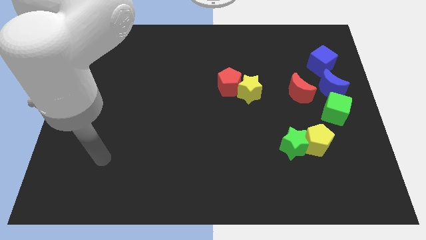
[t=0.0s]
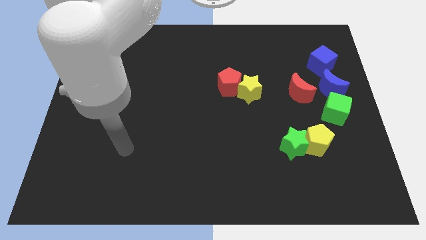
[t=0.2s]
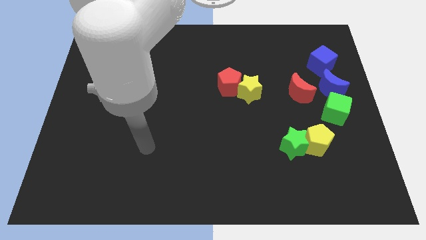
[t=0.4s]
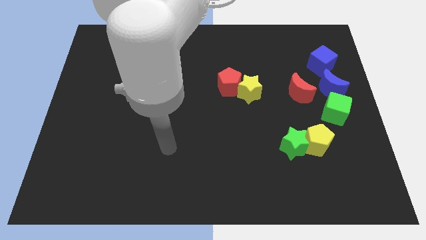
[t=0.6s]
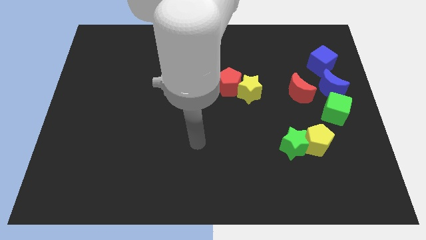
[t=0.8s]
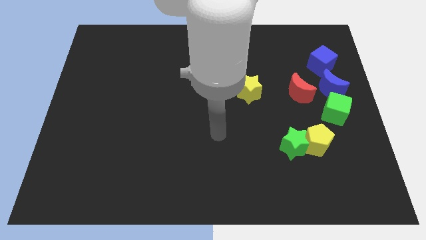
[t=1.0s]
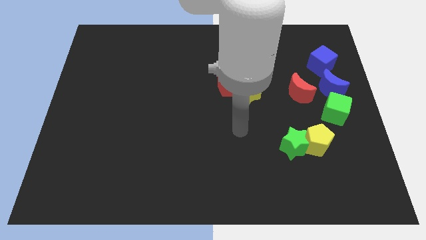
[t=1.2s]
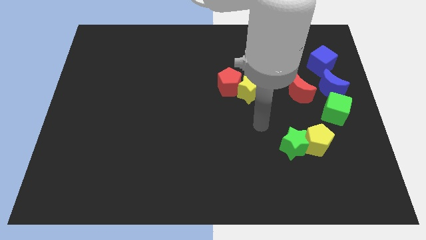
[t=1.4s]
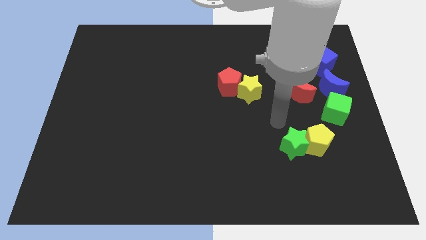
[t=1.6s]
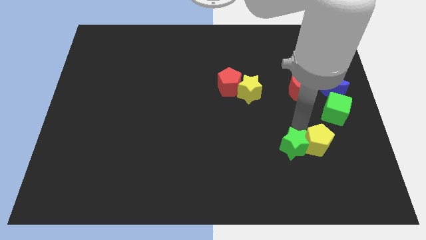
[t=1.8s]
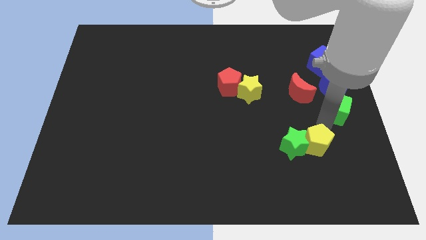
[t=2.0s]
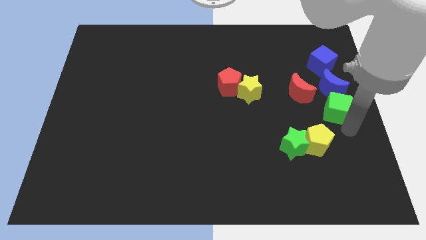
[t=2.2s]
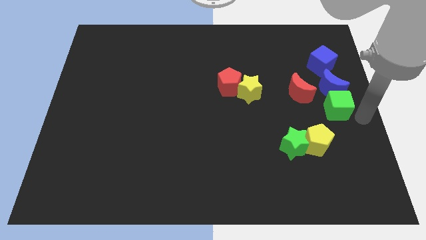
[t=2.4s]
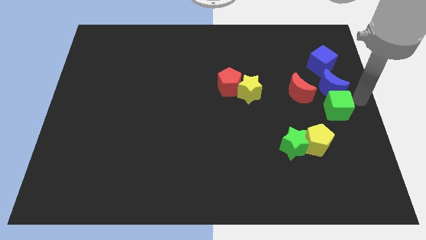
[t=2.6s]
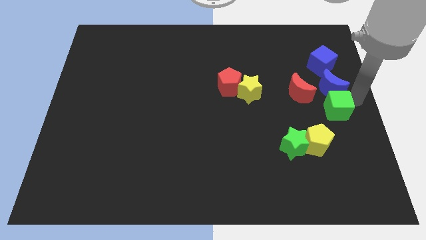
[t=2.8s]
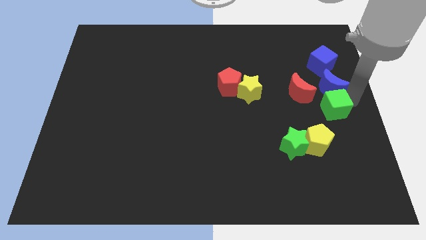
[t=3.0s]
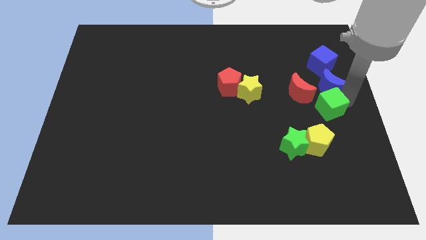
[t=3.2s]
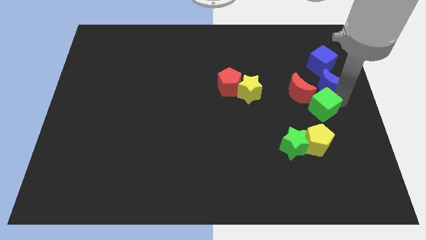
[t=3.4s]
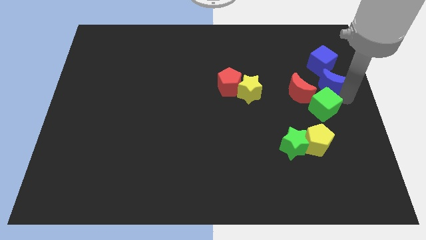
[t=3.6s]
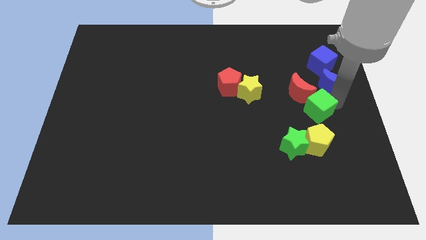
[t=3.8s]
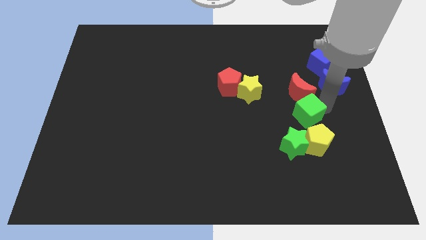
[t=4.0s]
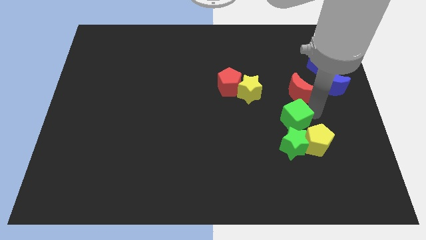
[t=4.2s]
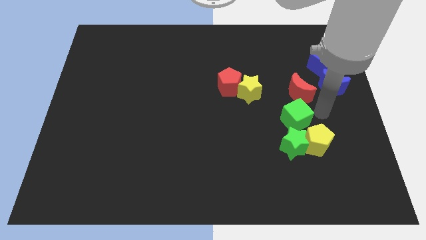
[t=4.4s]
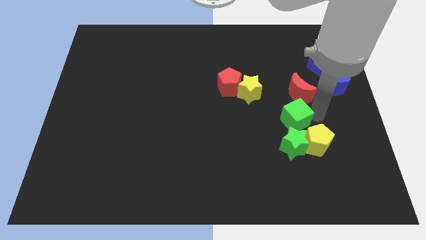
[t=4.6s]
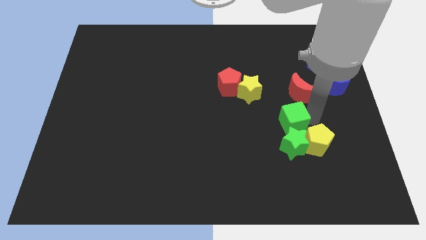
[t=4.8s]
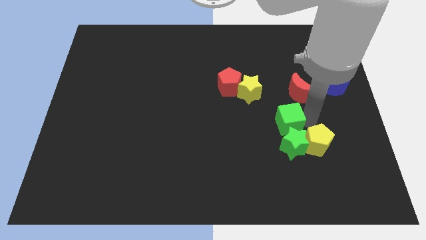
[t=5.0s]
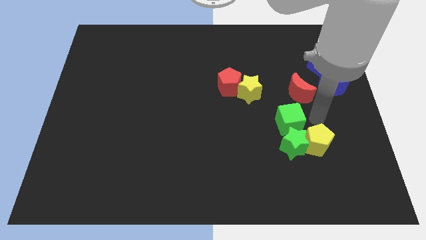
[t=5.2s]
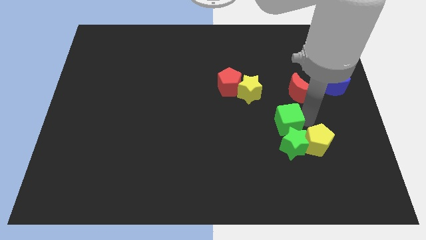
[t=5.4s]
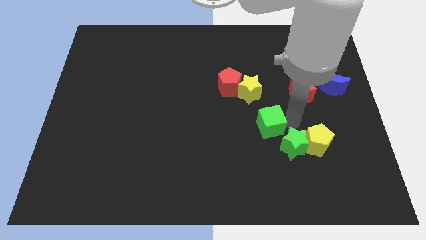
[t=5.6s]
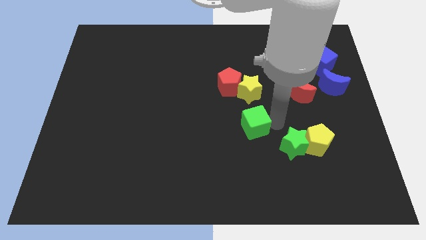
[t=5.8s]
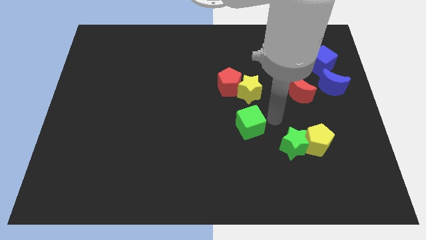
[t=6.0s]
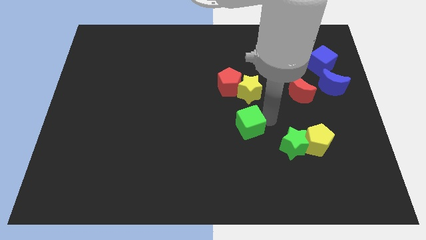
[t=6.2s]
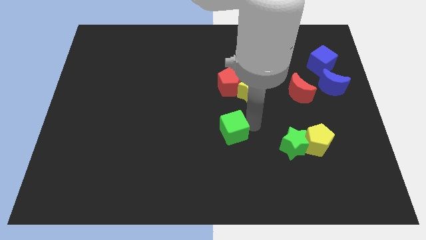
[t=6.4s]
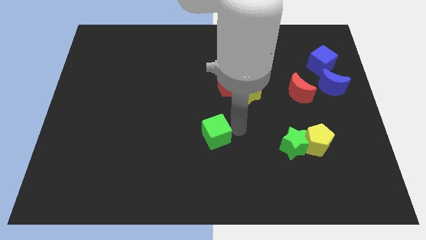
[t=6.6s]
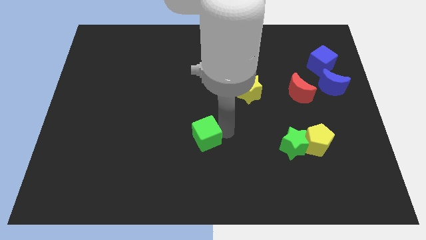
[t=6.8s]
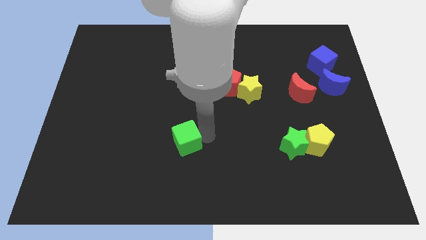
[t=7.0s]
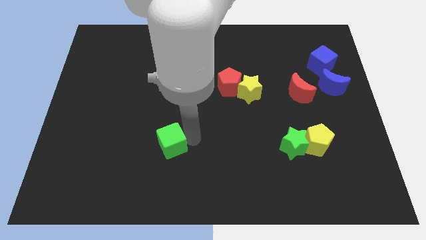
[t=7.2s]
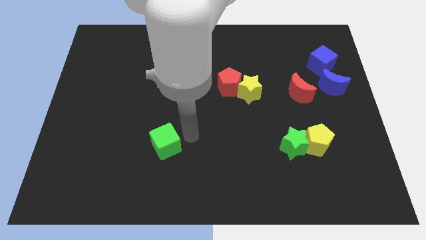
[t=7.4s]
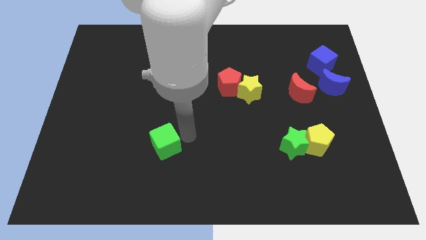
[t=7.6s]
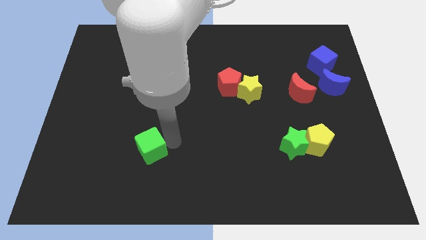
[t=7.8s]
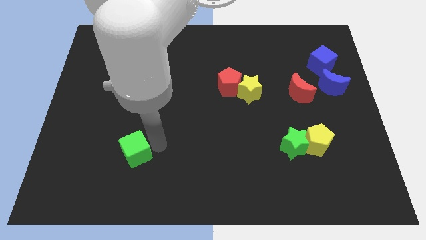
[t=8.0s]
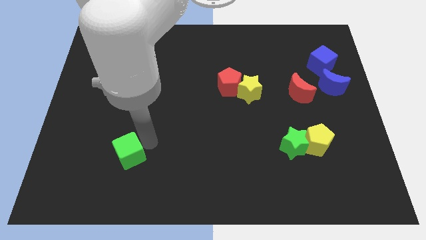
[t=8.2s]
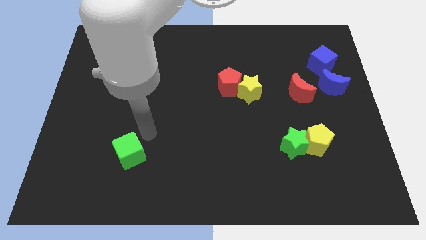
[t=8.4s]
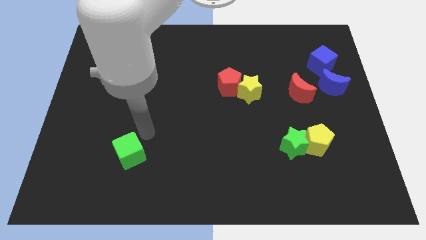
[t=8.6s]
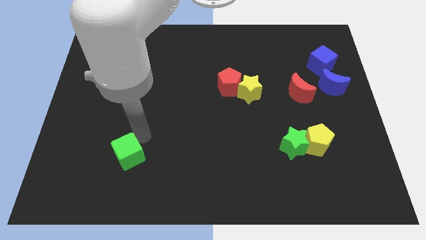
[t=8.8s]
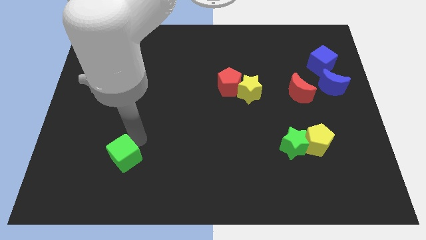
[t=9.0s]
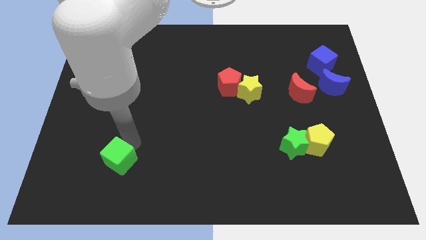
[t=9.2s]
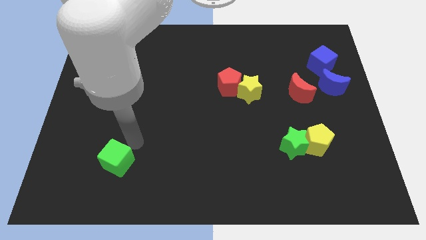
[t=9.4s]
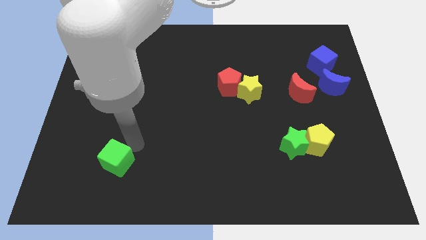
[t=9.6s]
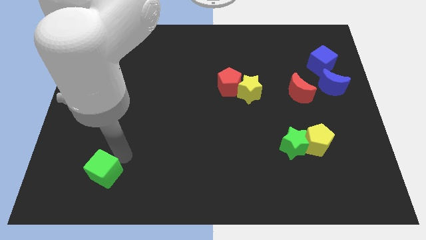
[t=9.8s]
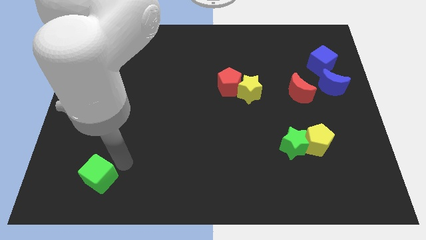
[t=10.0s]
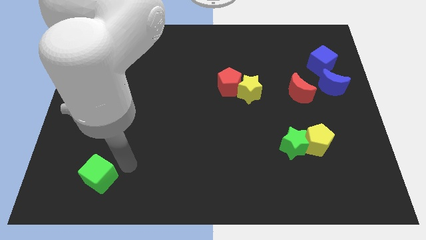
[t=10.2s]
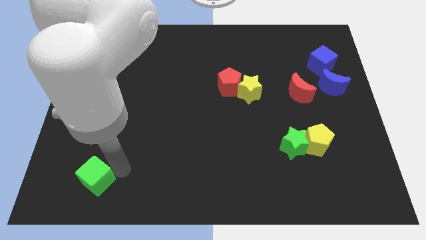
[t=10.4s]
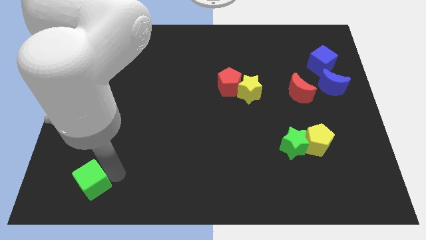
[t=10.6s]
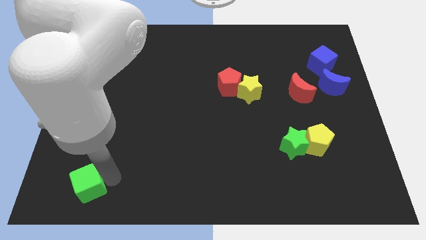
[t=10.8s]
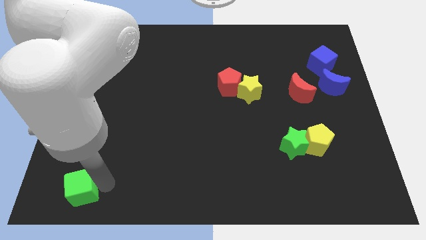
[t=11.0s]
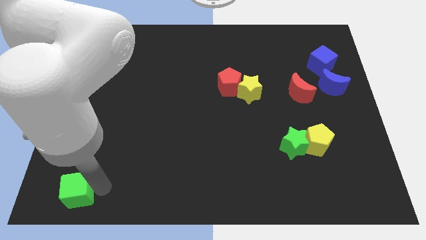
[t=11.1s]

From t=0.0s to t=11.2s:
move the green cube to the bottom left corner
